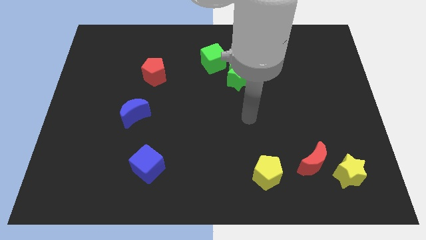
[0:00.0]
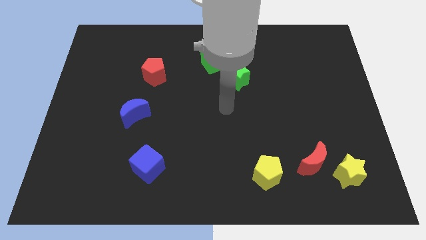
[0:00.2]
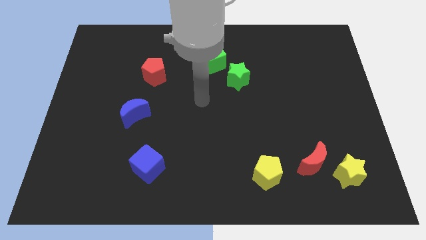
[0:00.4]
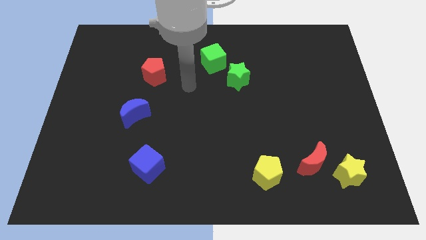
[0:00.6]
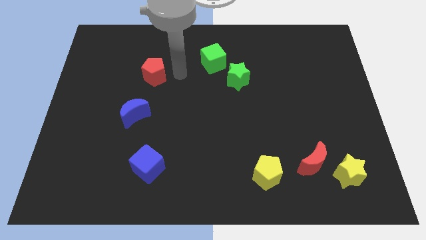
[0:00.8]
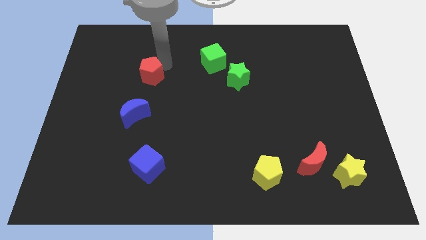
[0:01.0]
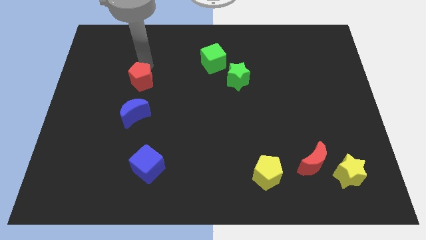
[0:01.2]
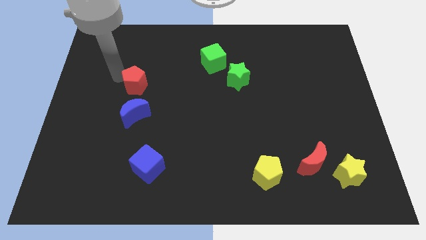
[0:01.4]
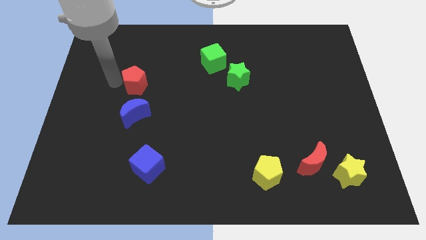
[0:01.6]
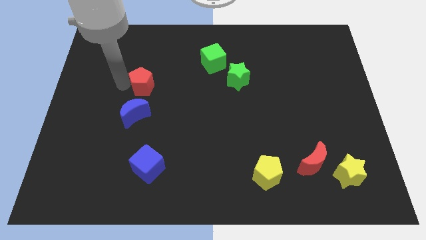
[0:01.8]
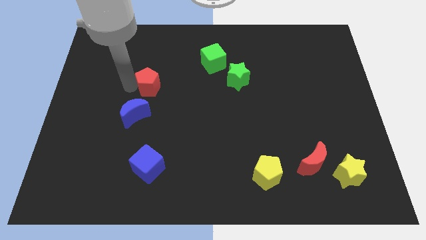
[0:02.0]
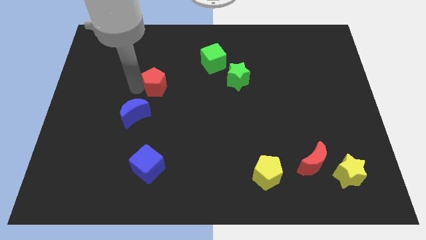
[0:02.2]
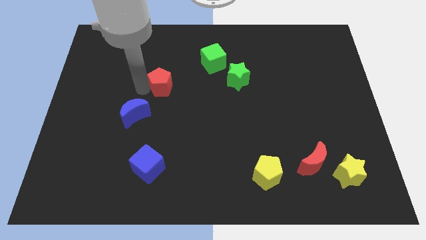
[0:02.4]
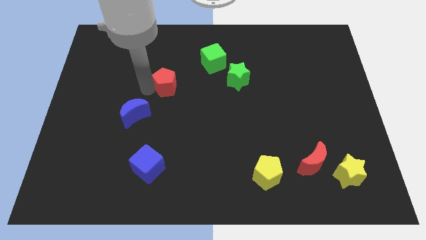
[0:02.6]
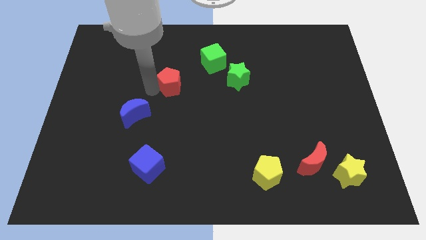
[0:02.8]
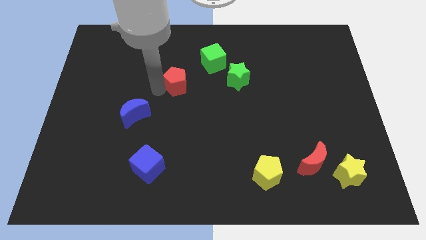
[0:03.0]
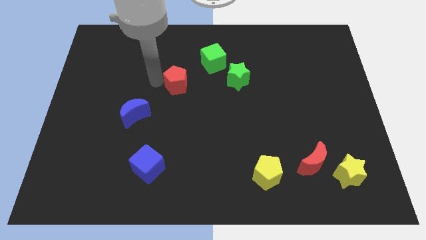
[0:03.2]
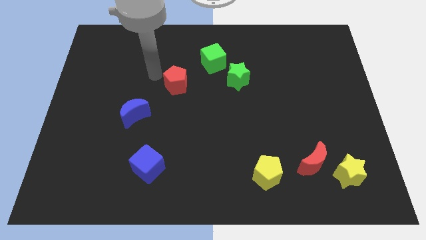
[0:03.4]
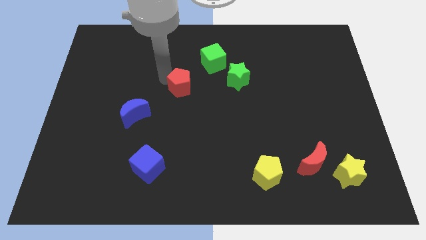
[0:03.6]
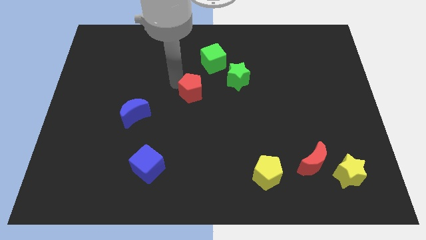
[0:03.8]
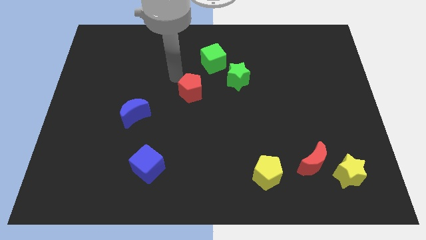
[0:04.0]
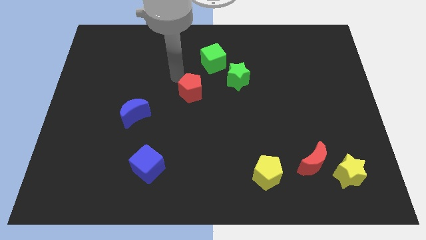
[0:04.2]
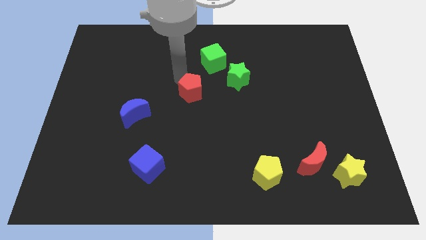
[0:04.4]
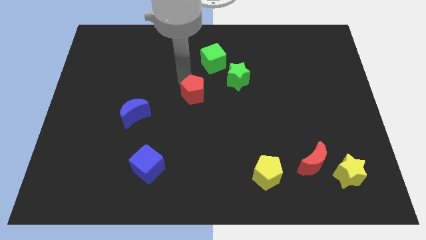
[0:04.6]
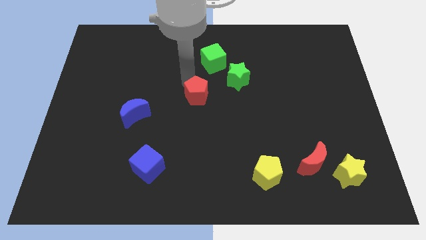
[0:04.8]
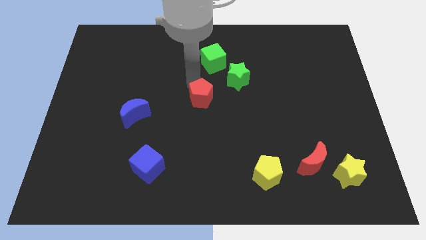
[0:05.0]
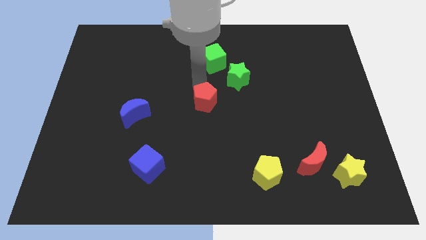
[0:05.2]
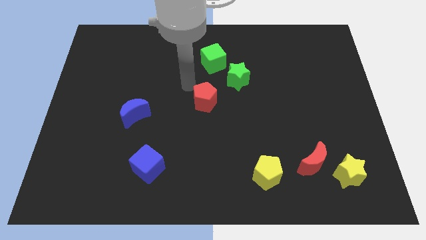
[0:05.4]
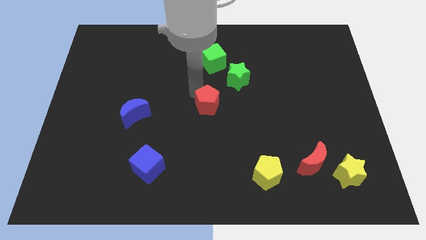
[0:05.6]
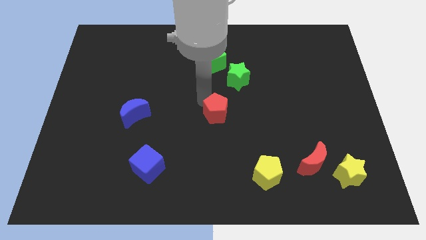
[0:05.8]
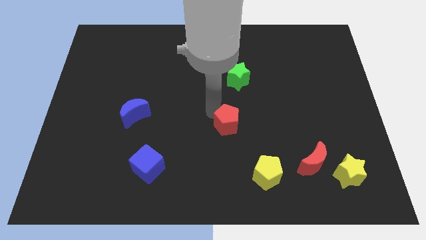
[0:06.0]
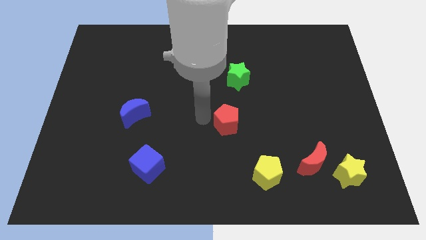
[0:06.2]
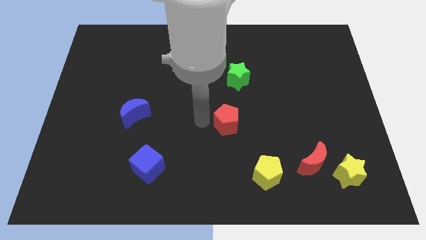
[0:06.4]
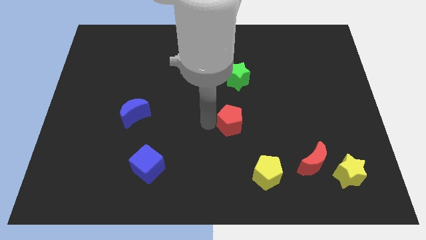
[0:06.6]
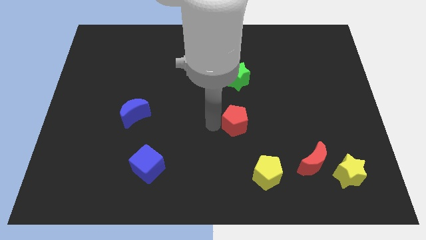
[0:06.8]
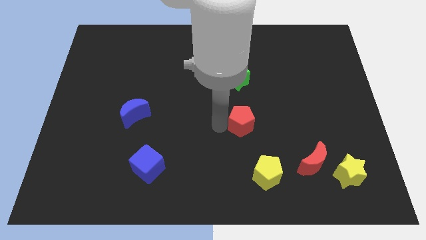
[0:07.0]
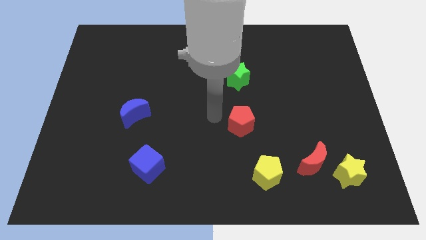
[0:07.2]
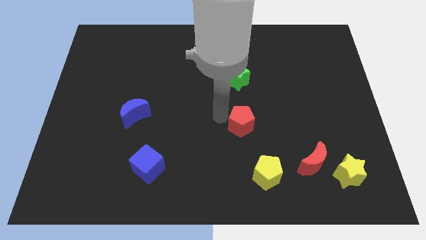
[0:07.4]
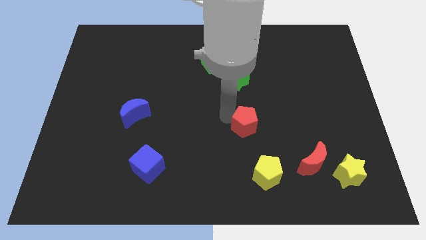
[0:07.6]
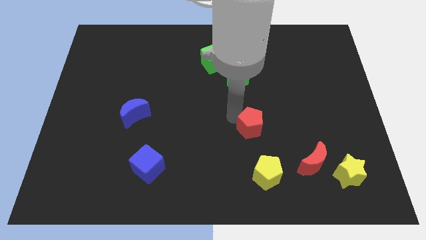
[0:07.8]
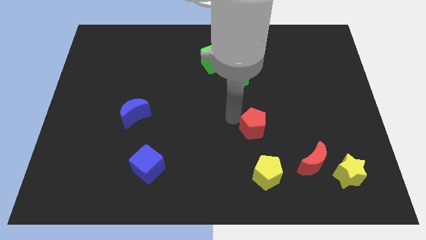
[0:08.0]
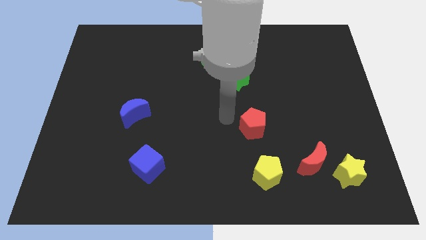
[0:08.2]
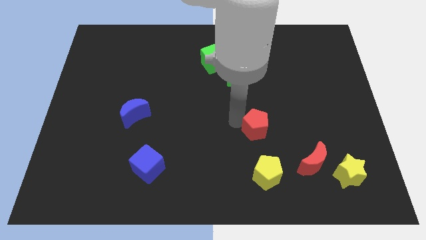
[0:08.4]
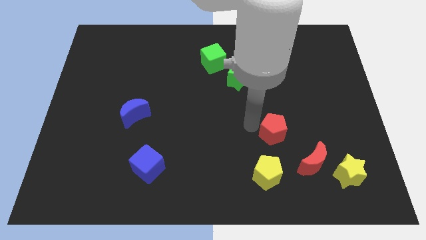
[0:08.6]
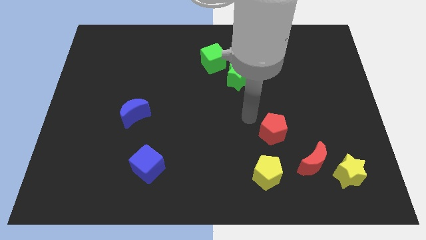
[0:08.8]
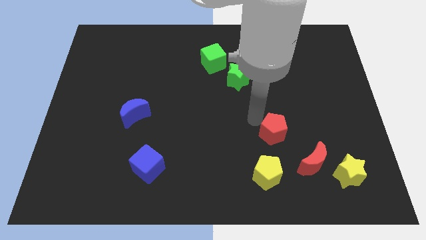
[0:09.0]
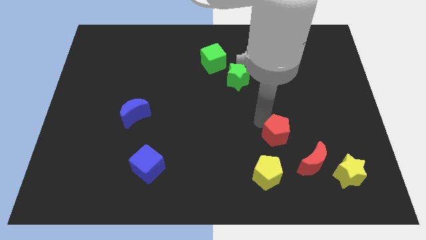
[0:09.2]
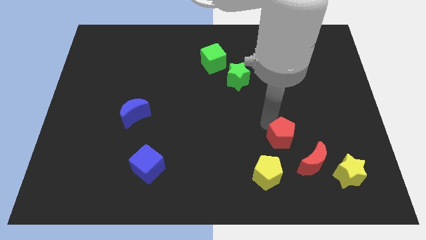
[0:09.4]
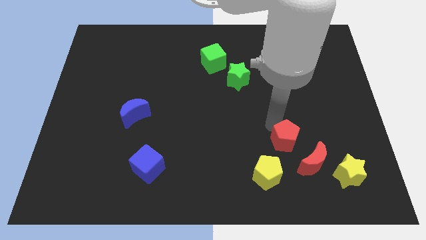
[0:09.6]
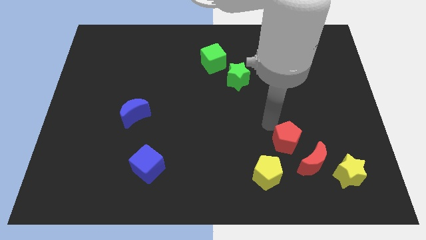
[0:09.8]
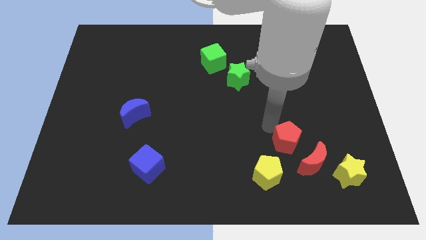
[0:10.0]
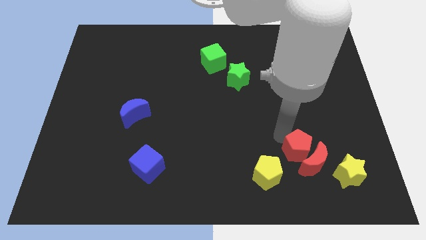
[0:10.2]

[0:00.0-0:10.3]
slide the red pentagon towards the red moon
